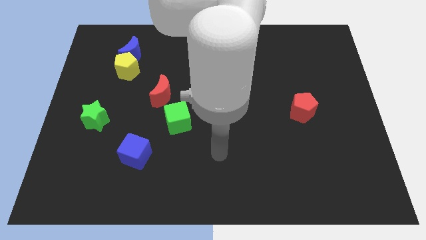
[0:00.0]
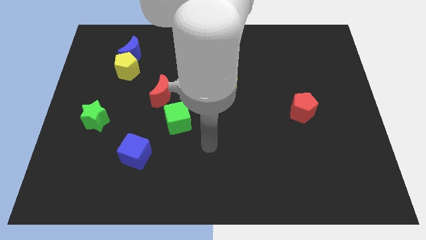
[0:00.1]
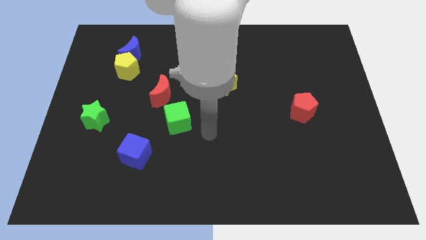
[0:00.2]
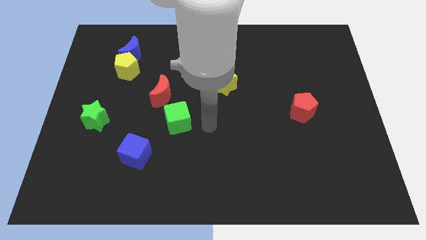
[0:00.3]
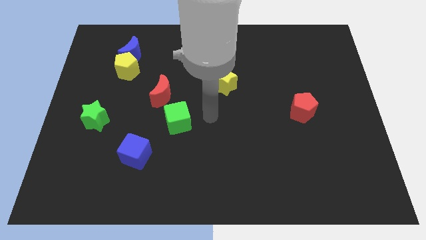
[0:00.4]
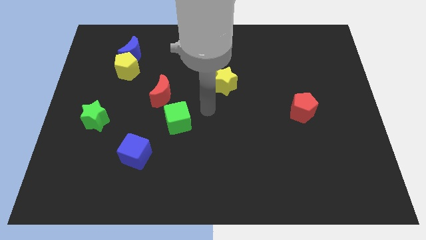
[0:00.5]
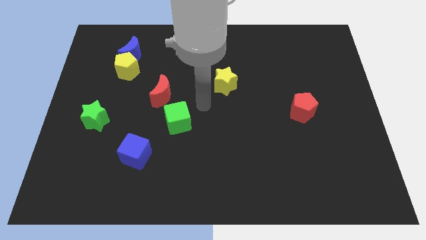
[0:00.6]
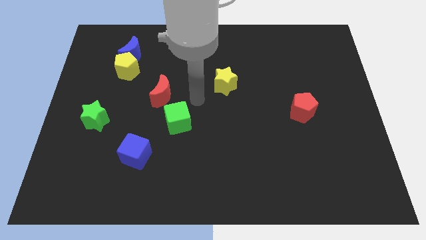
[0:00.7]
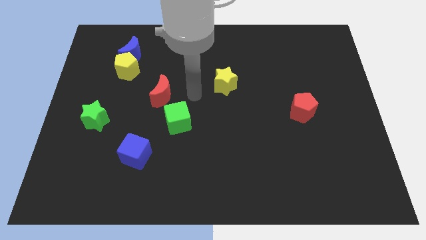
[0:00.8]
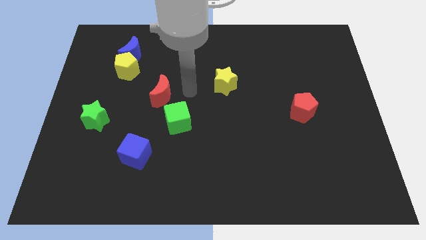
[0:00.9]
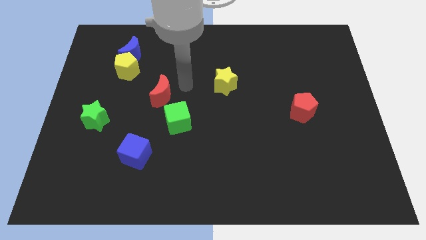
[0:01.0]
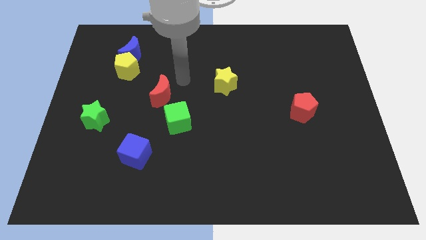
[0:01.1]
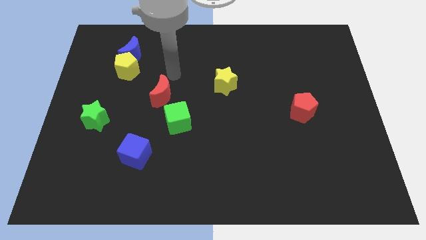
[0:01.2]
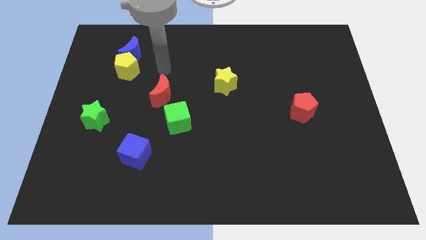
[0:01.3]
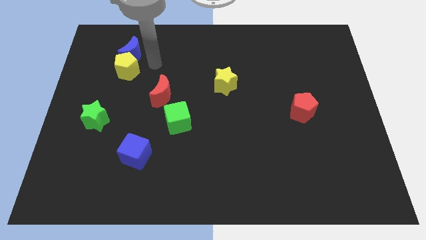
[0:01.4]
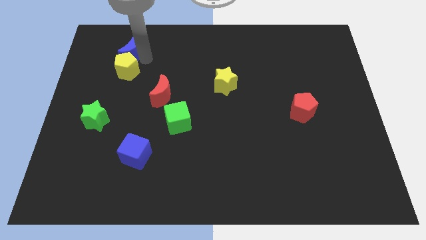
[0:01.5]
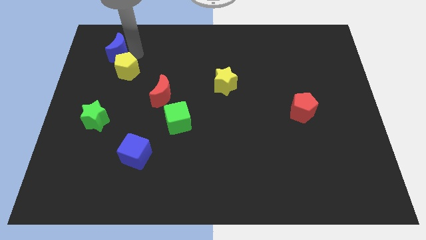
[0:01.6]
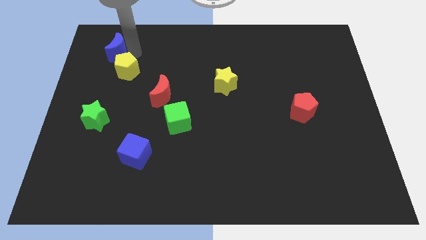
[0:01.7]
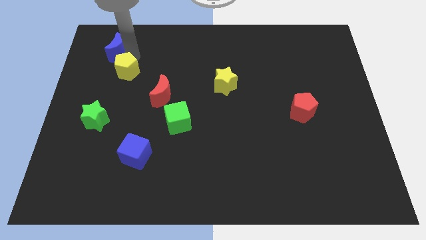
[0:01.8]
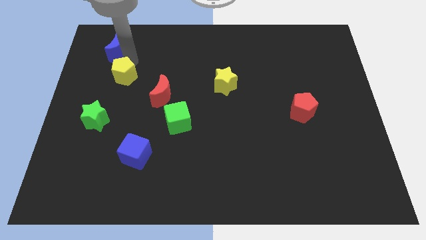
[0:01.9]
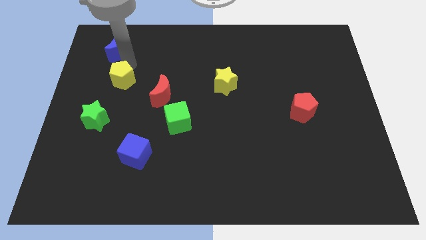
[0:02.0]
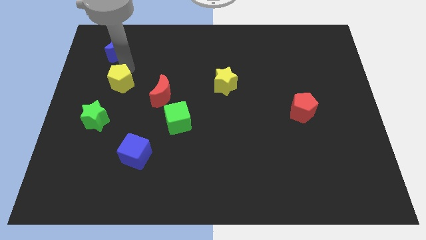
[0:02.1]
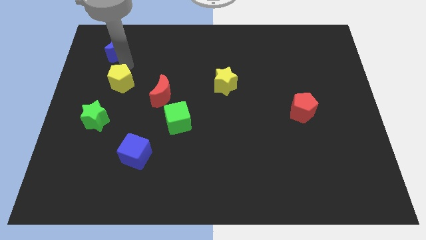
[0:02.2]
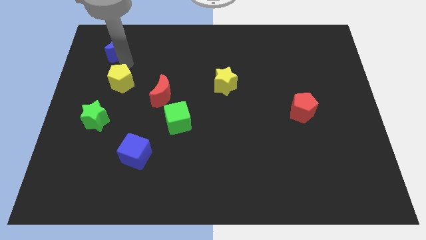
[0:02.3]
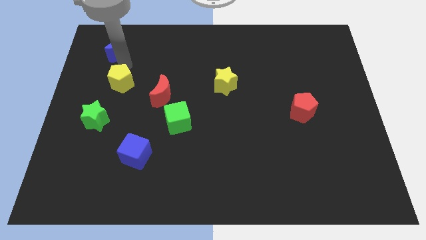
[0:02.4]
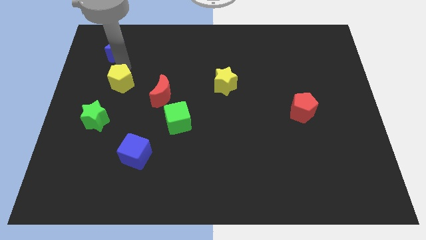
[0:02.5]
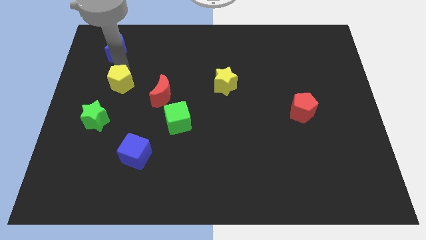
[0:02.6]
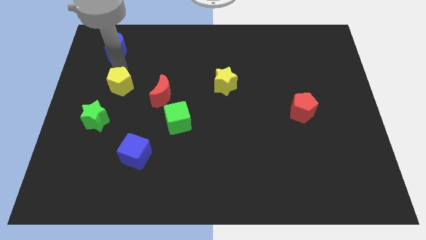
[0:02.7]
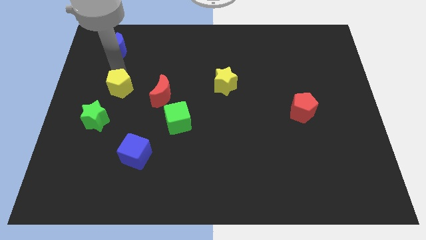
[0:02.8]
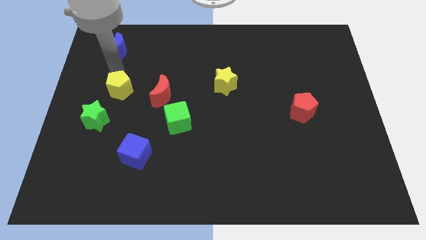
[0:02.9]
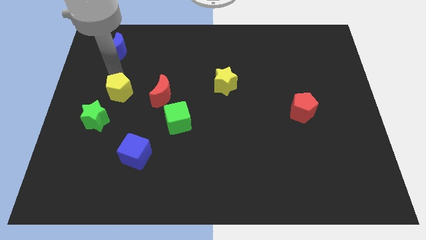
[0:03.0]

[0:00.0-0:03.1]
move the yellow pentagon a little bit downwards

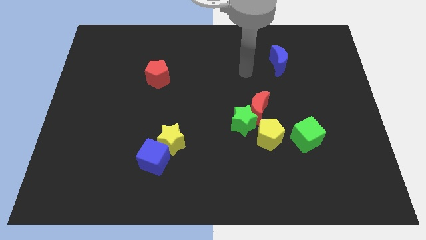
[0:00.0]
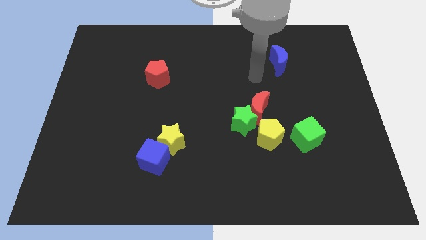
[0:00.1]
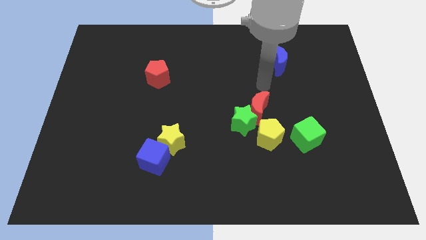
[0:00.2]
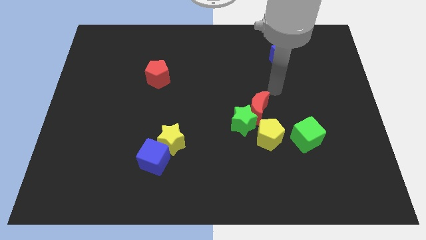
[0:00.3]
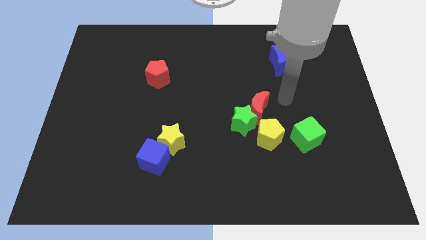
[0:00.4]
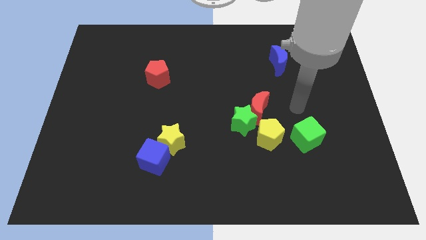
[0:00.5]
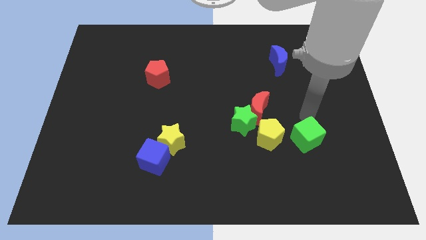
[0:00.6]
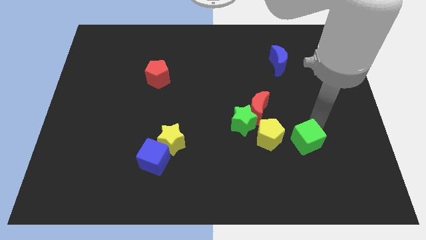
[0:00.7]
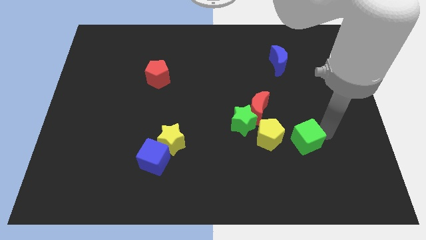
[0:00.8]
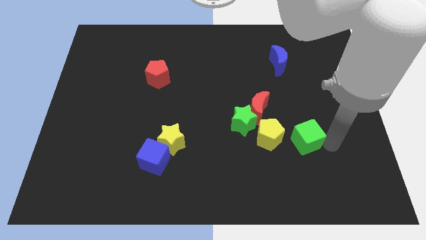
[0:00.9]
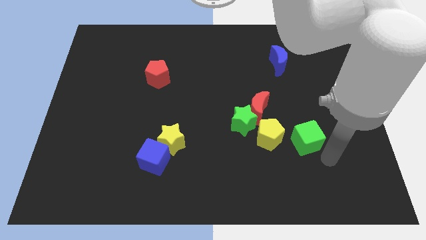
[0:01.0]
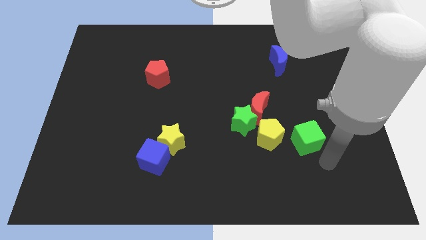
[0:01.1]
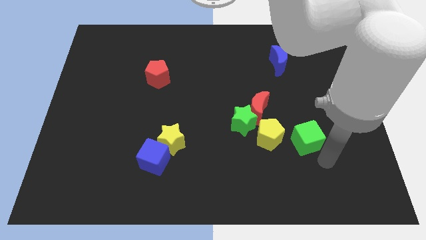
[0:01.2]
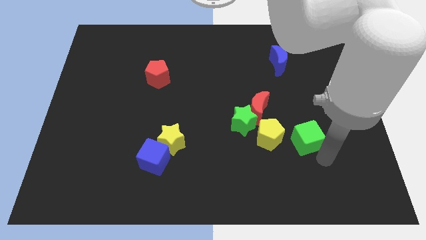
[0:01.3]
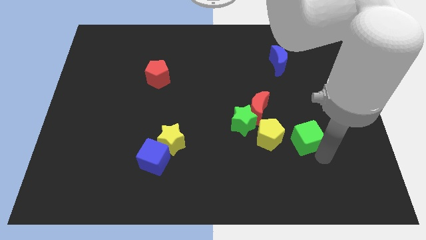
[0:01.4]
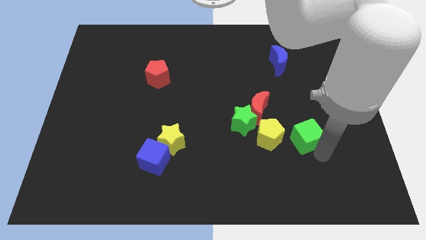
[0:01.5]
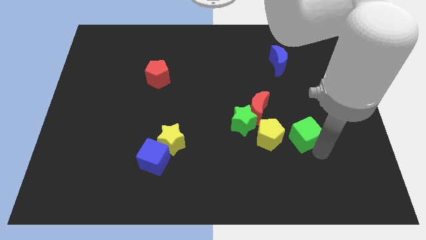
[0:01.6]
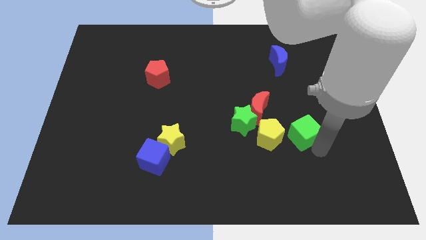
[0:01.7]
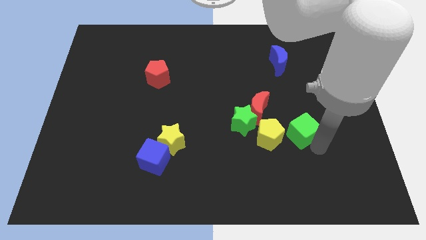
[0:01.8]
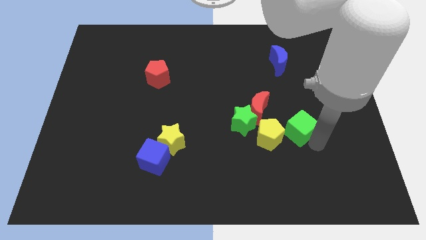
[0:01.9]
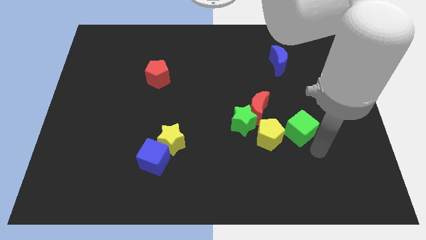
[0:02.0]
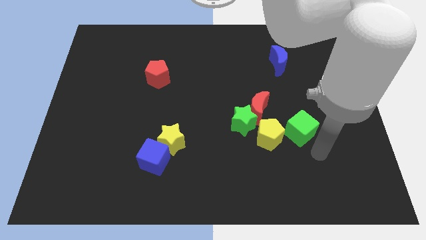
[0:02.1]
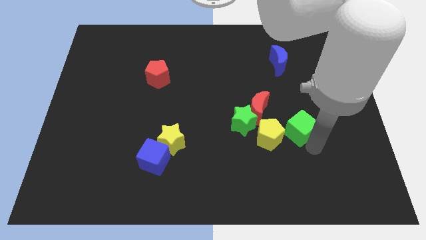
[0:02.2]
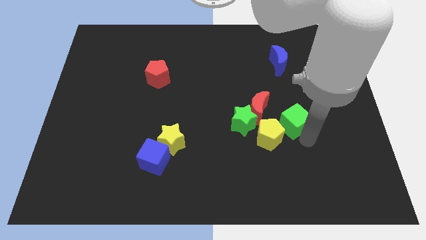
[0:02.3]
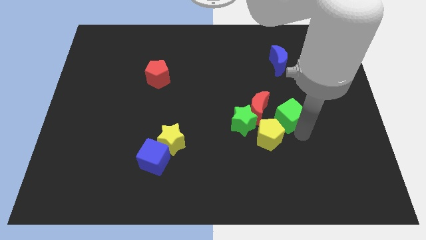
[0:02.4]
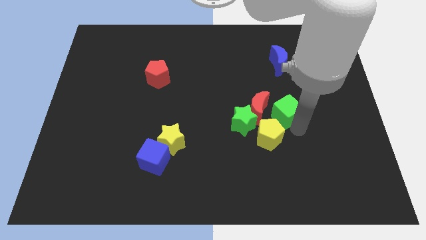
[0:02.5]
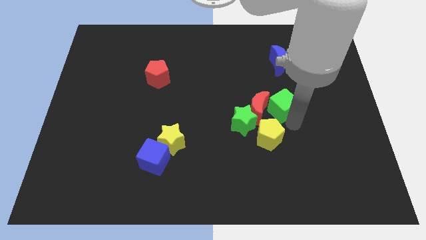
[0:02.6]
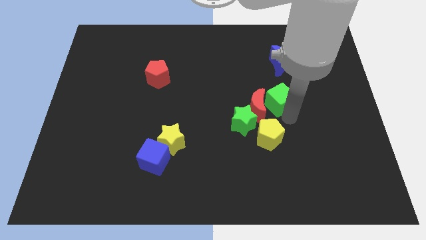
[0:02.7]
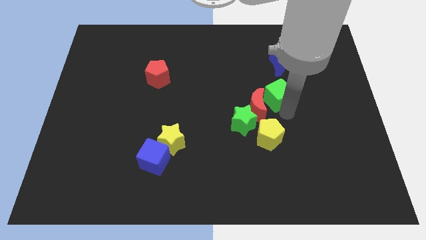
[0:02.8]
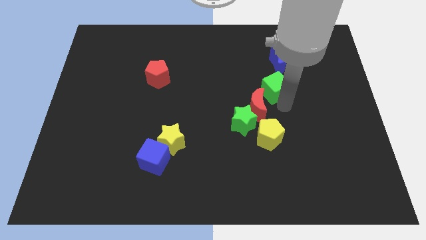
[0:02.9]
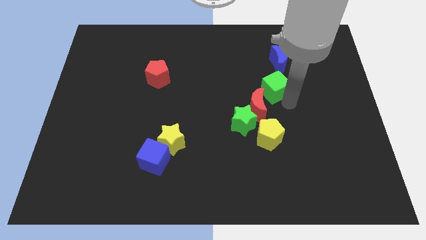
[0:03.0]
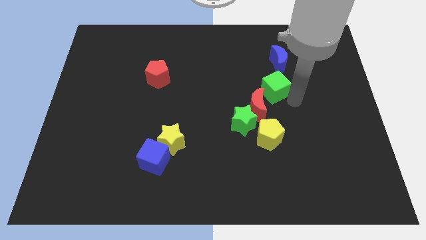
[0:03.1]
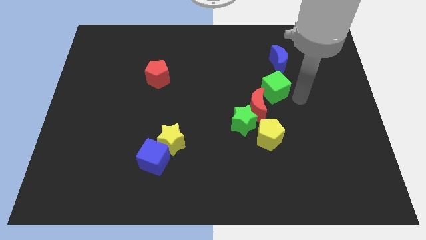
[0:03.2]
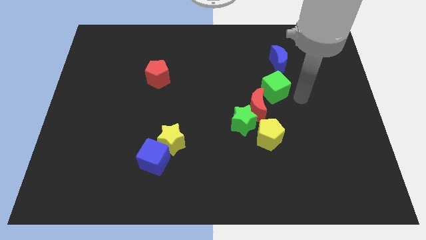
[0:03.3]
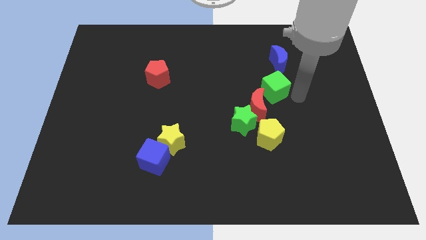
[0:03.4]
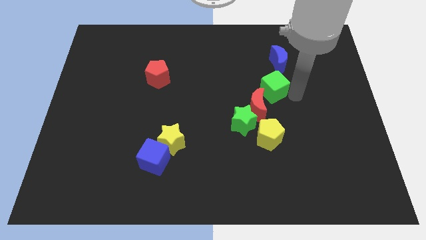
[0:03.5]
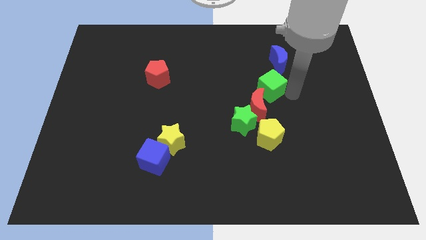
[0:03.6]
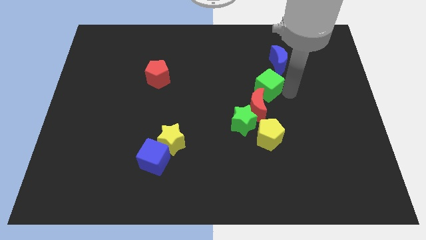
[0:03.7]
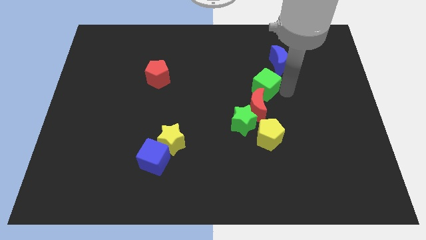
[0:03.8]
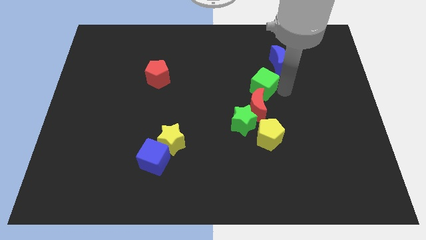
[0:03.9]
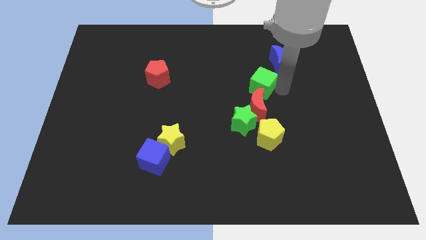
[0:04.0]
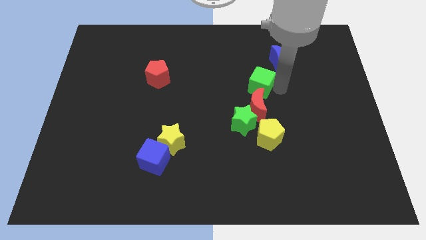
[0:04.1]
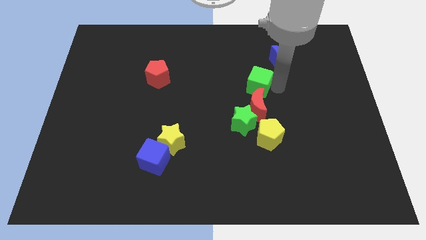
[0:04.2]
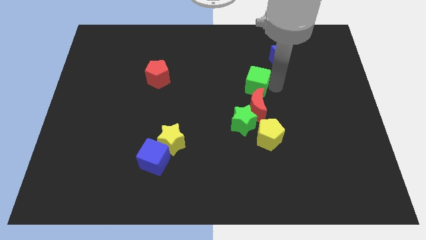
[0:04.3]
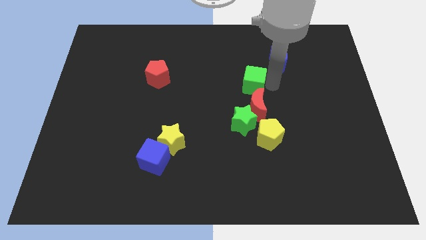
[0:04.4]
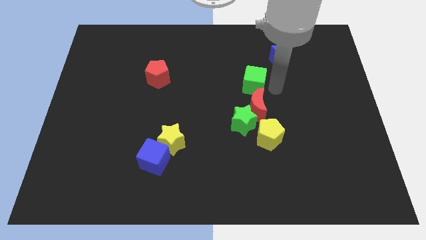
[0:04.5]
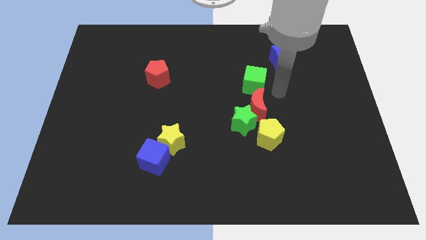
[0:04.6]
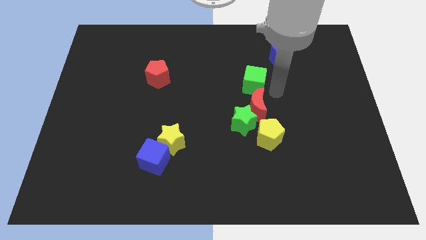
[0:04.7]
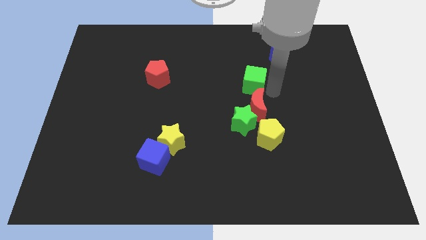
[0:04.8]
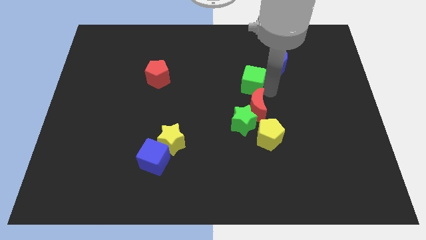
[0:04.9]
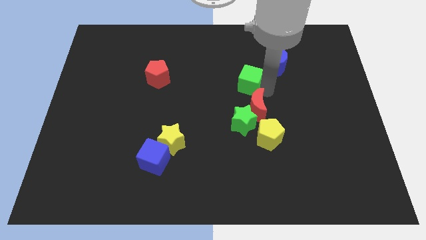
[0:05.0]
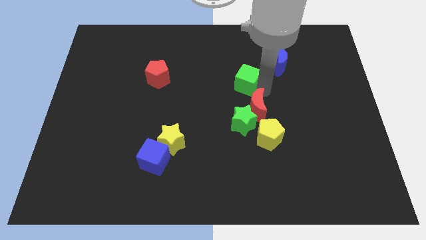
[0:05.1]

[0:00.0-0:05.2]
move the green cube upwards and then to the left

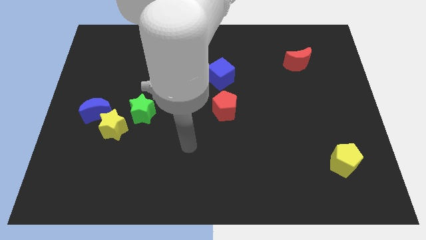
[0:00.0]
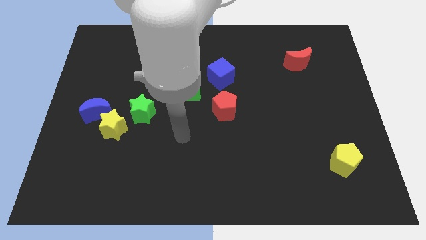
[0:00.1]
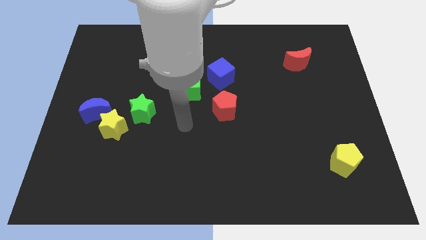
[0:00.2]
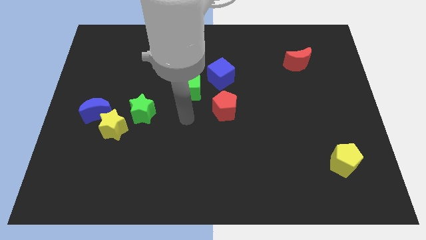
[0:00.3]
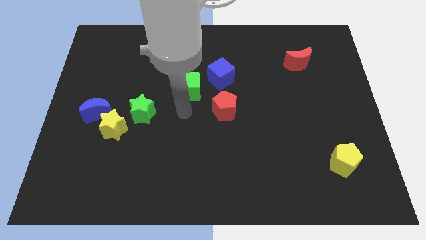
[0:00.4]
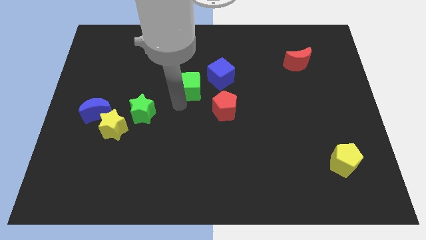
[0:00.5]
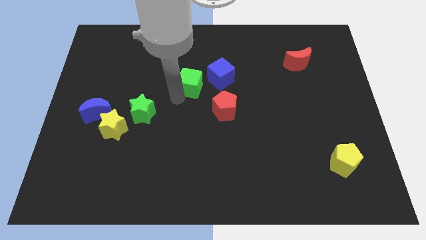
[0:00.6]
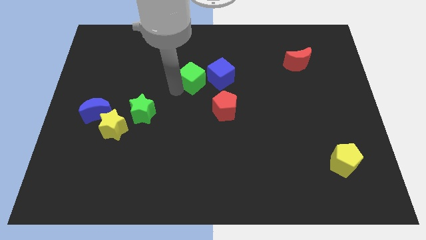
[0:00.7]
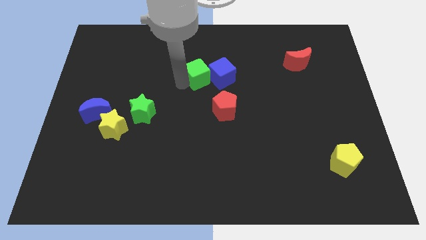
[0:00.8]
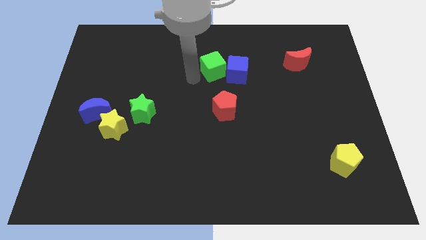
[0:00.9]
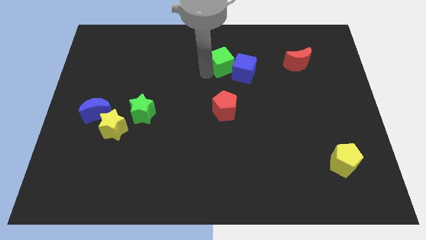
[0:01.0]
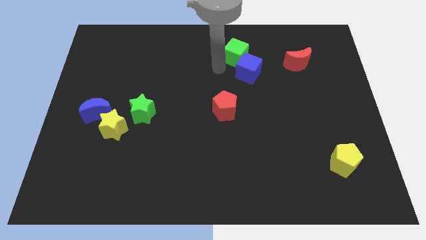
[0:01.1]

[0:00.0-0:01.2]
move the blue cube slightly right
